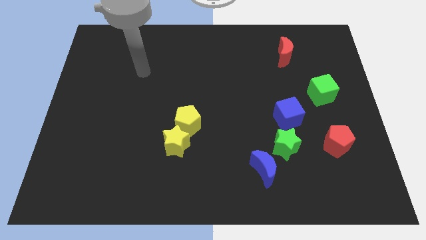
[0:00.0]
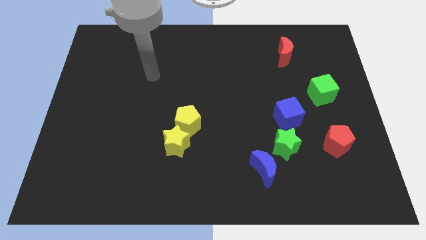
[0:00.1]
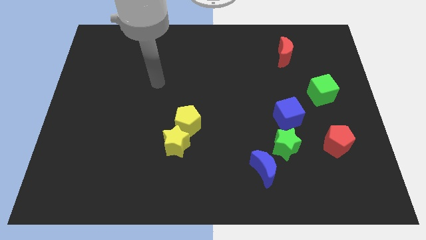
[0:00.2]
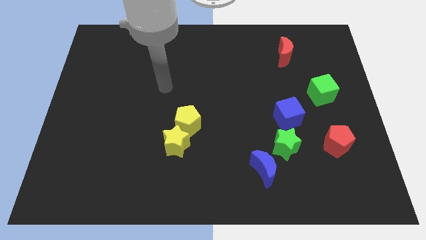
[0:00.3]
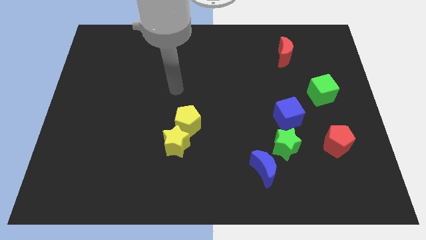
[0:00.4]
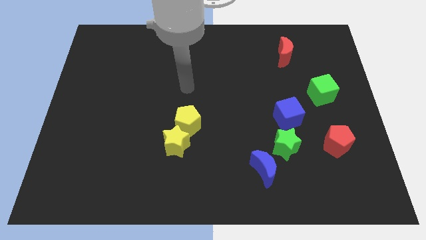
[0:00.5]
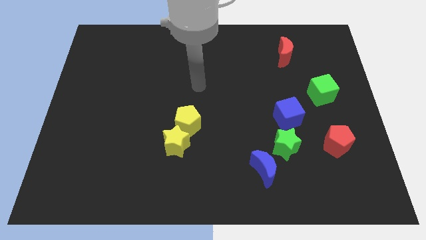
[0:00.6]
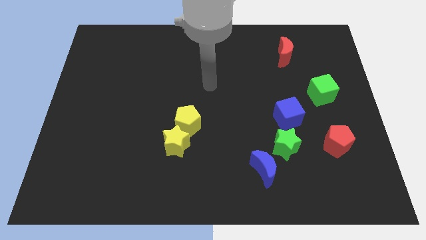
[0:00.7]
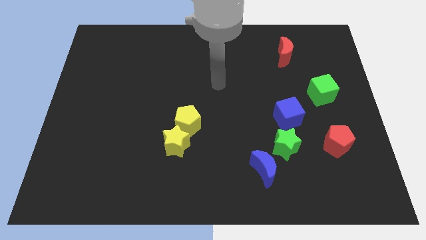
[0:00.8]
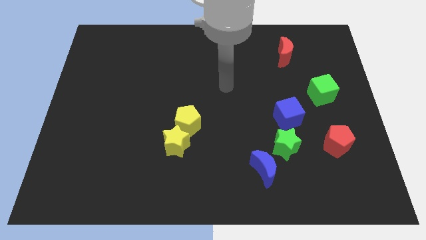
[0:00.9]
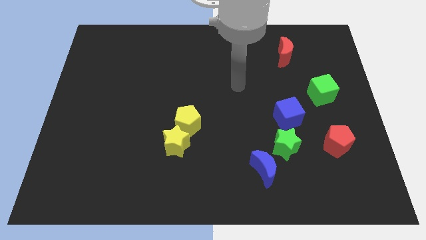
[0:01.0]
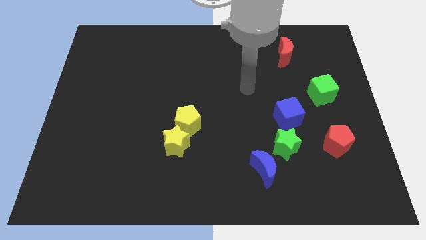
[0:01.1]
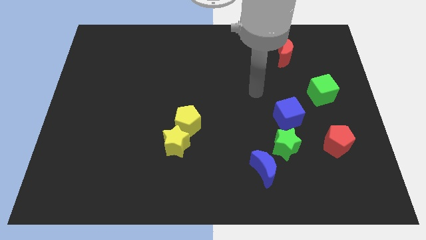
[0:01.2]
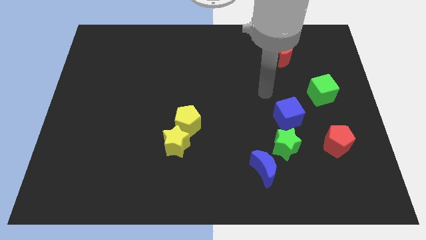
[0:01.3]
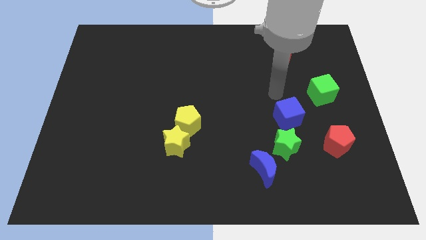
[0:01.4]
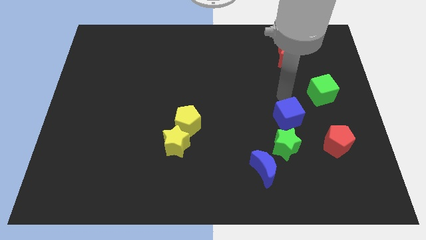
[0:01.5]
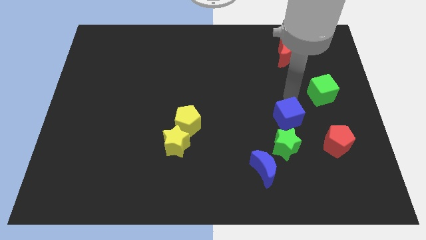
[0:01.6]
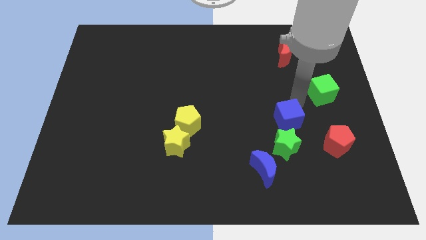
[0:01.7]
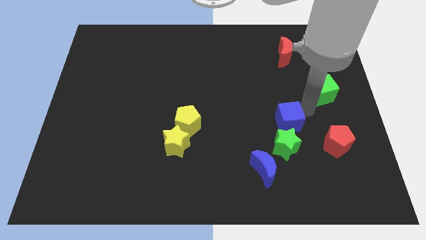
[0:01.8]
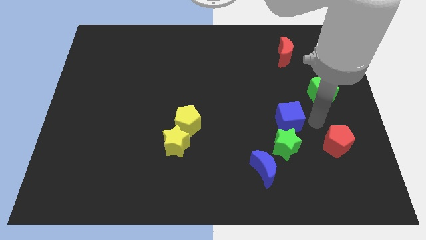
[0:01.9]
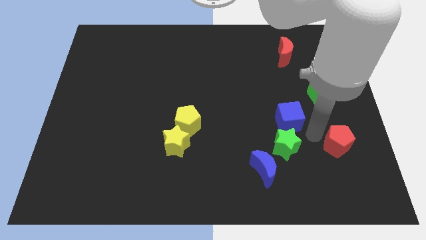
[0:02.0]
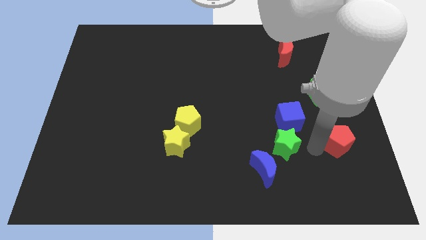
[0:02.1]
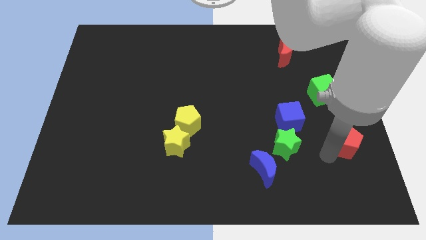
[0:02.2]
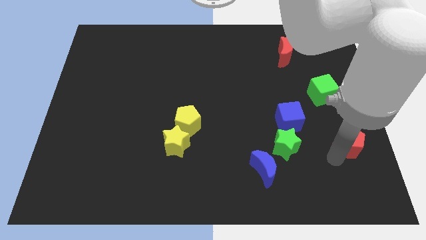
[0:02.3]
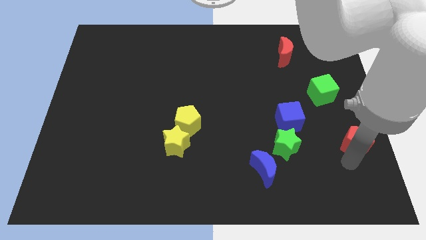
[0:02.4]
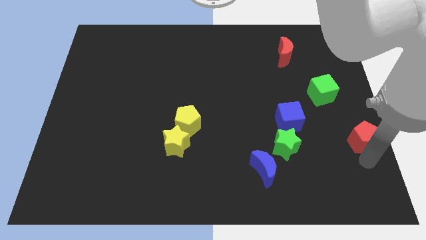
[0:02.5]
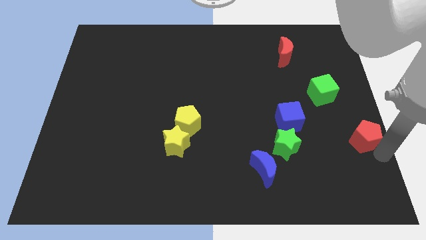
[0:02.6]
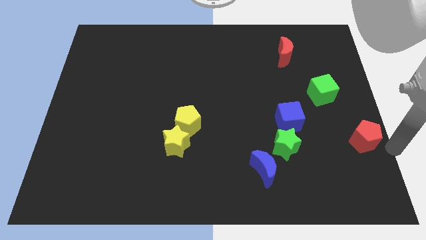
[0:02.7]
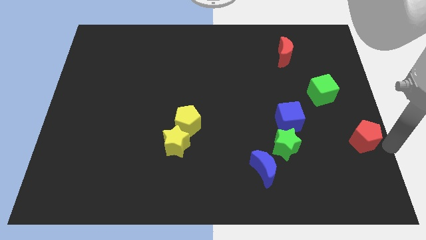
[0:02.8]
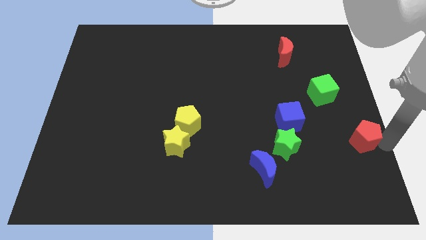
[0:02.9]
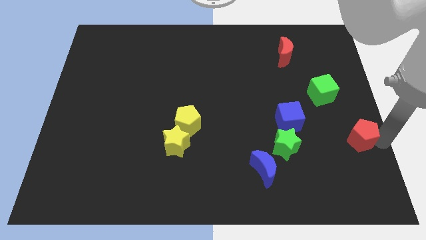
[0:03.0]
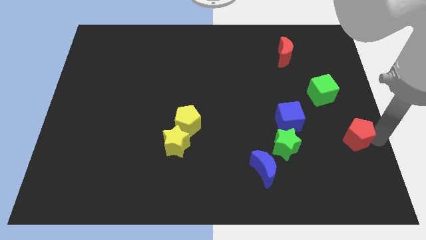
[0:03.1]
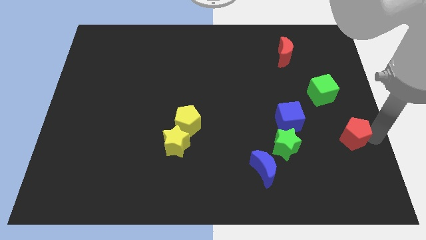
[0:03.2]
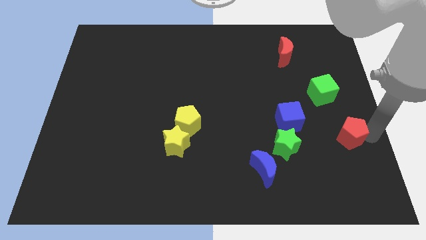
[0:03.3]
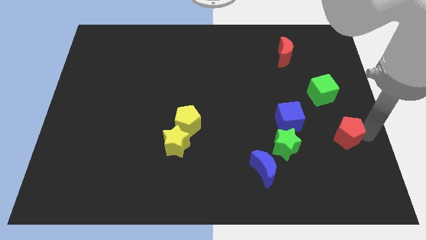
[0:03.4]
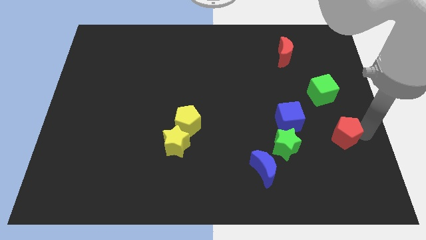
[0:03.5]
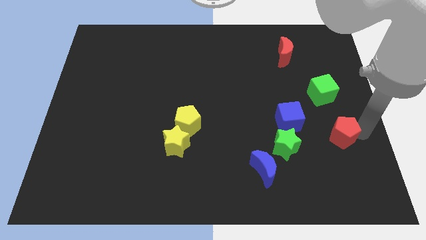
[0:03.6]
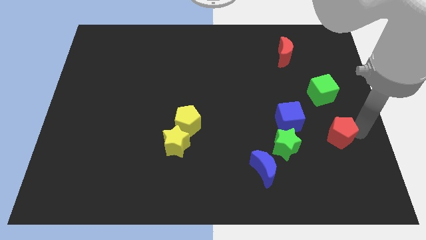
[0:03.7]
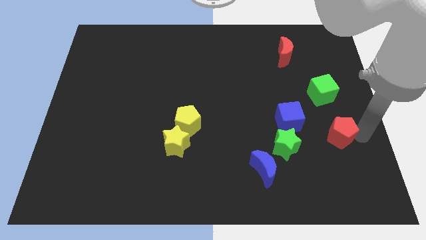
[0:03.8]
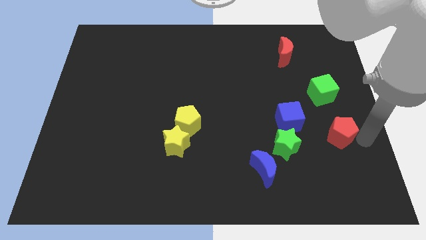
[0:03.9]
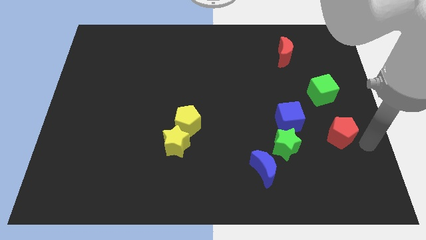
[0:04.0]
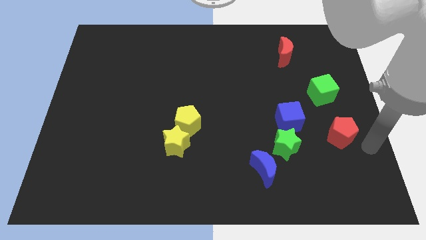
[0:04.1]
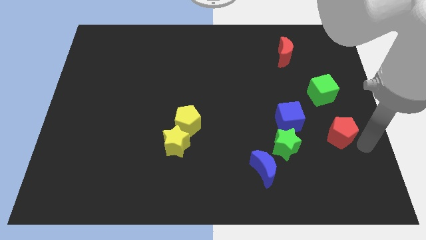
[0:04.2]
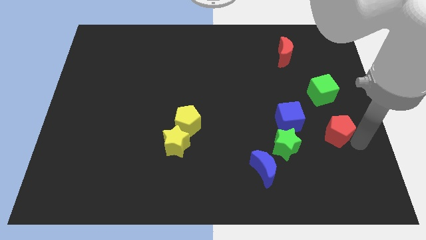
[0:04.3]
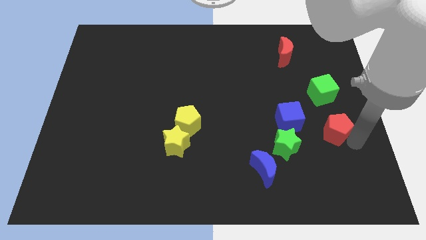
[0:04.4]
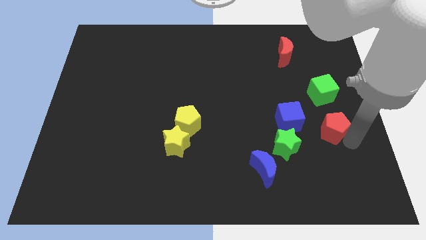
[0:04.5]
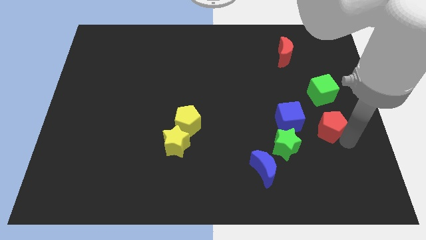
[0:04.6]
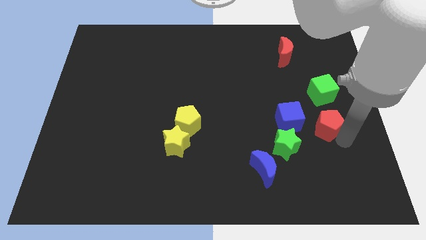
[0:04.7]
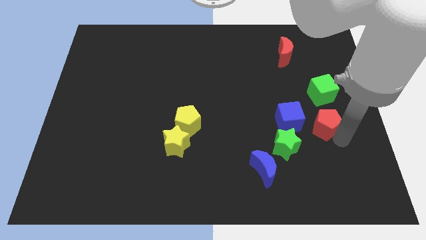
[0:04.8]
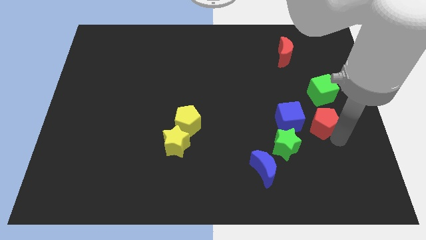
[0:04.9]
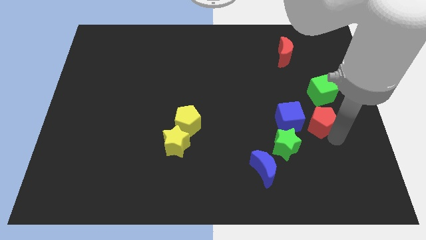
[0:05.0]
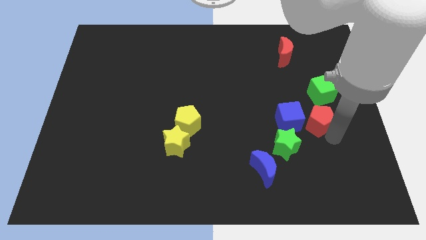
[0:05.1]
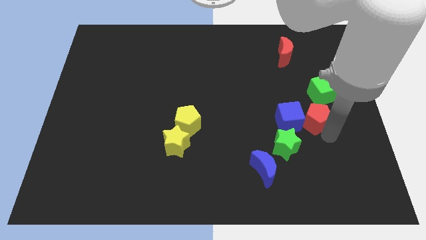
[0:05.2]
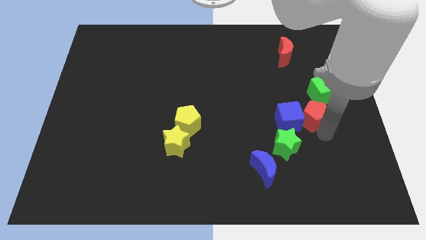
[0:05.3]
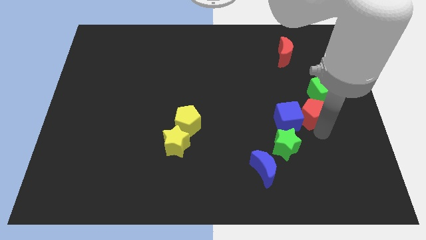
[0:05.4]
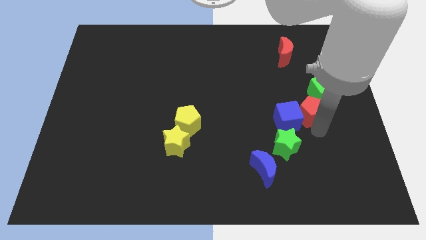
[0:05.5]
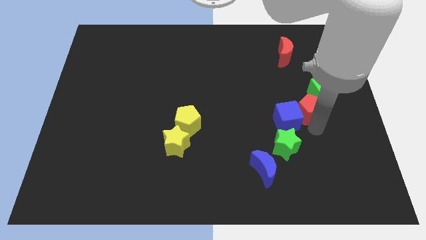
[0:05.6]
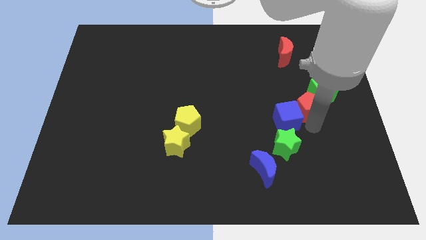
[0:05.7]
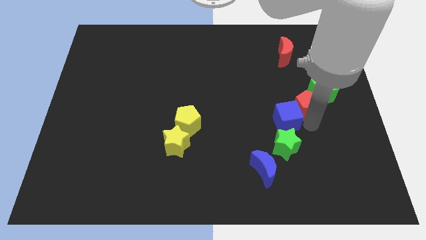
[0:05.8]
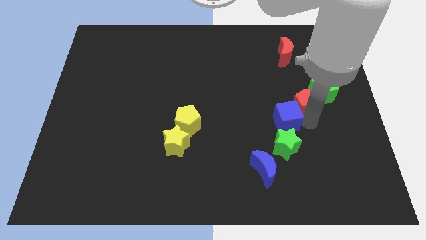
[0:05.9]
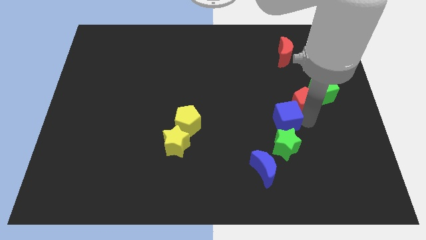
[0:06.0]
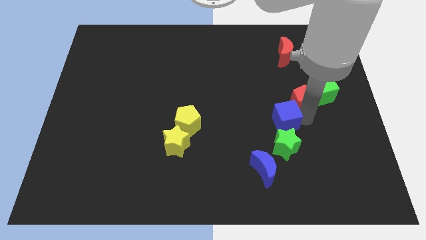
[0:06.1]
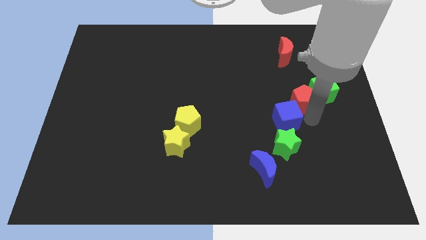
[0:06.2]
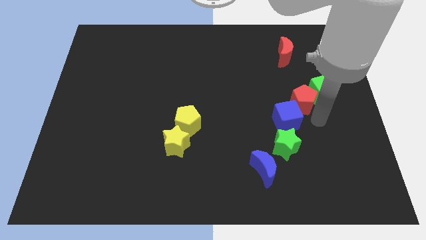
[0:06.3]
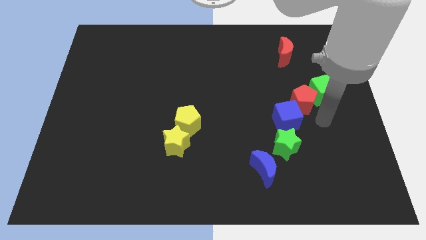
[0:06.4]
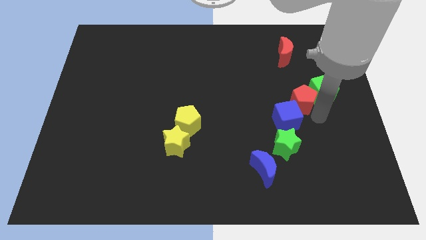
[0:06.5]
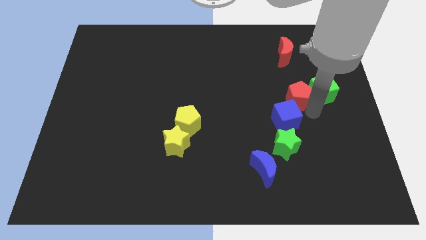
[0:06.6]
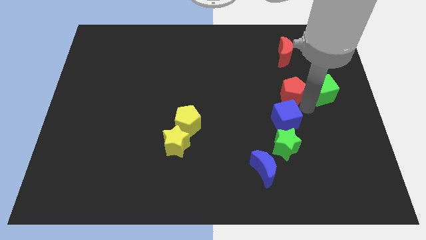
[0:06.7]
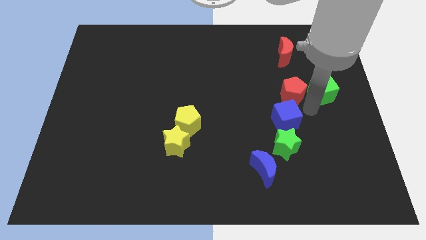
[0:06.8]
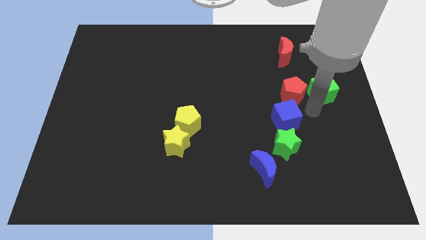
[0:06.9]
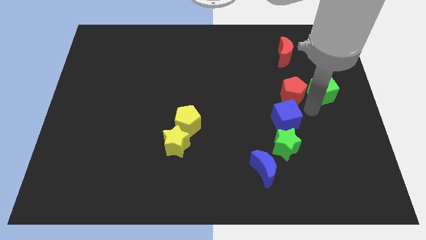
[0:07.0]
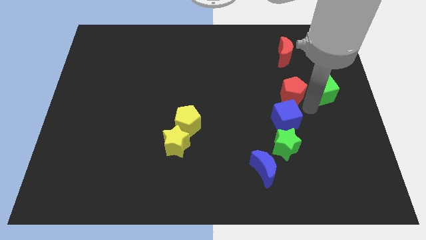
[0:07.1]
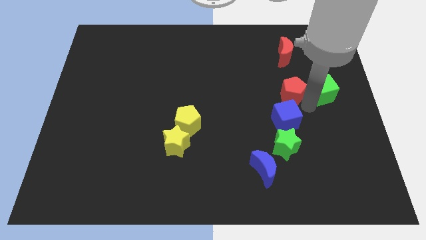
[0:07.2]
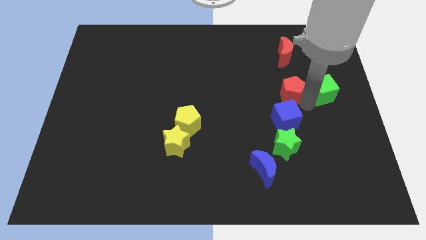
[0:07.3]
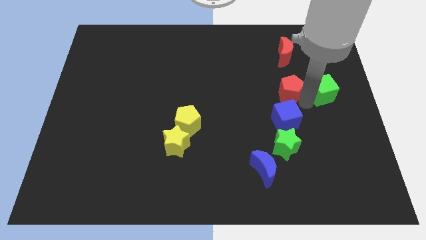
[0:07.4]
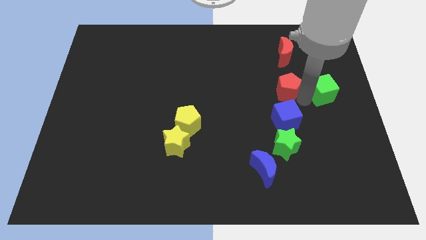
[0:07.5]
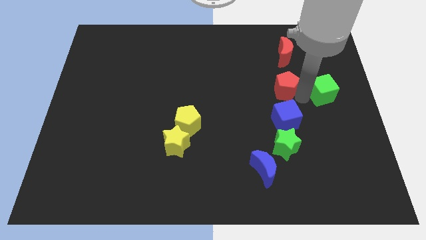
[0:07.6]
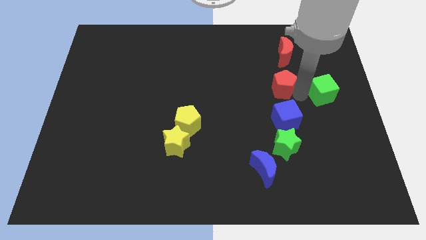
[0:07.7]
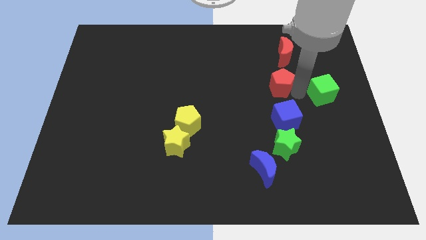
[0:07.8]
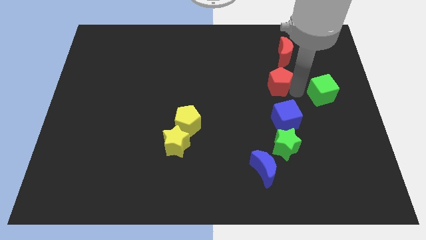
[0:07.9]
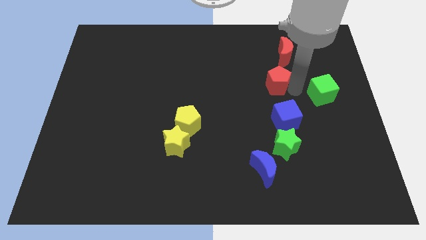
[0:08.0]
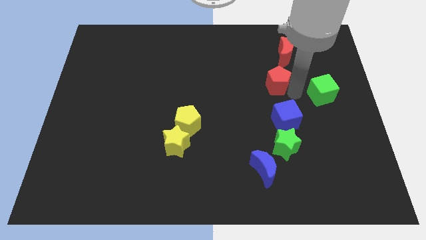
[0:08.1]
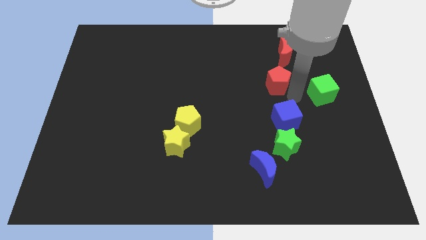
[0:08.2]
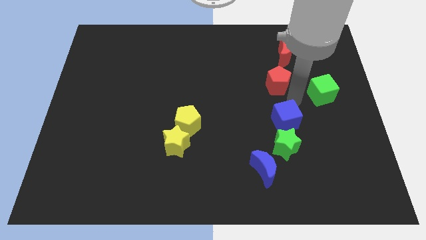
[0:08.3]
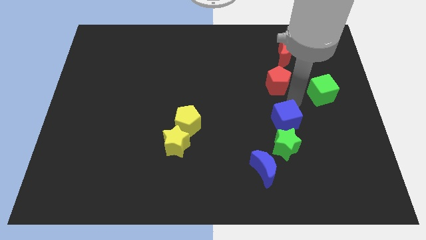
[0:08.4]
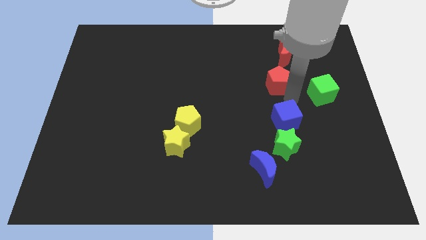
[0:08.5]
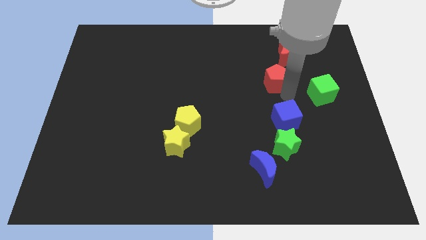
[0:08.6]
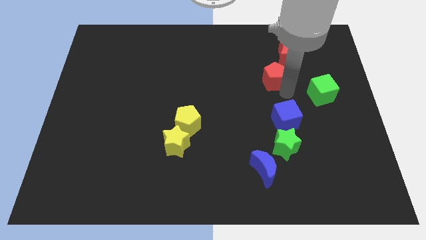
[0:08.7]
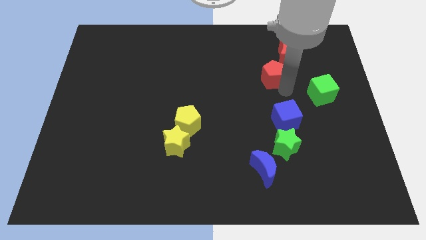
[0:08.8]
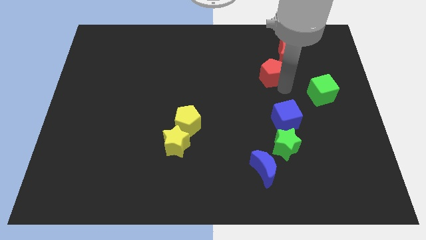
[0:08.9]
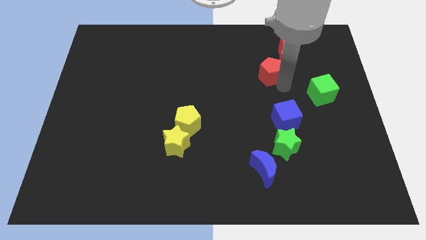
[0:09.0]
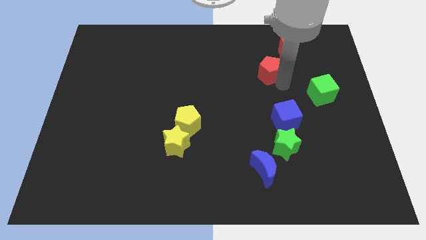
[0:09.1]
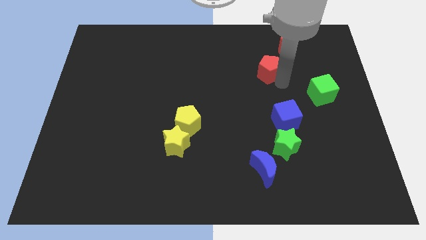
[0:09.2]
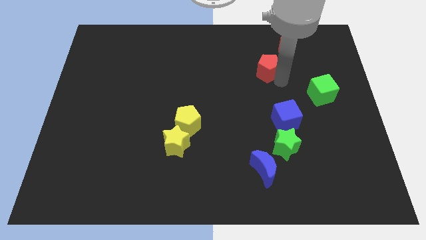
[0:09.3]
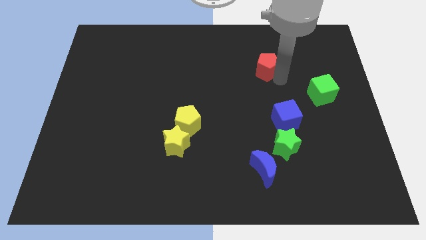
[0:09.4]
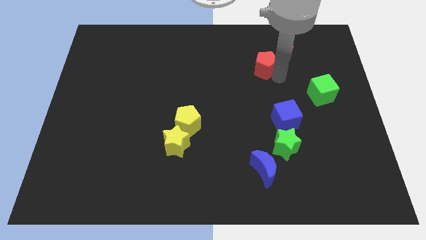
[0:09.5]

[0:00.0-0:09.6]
move the red pentagon left of the red moon
